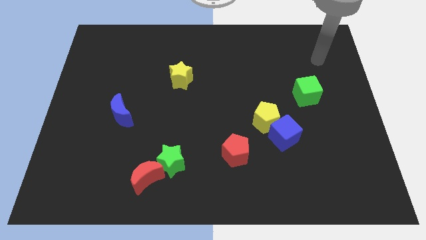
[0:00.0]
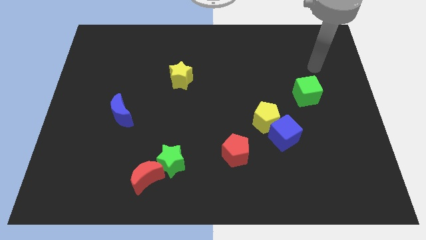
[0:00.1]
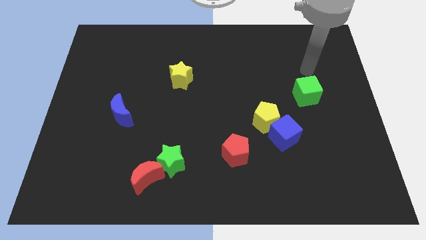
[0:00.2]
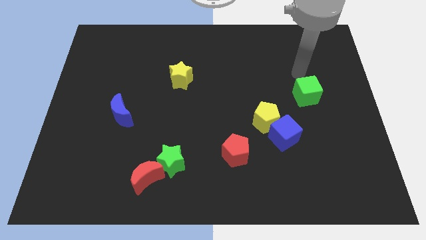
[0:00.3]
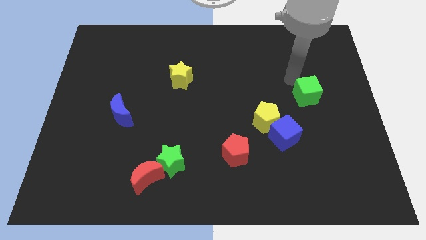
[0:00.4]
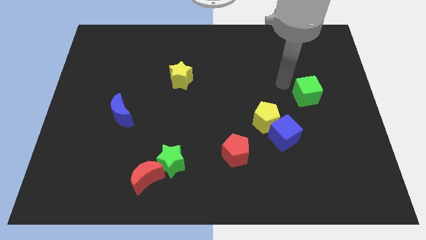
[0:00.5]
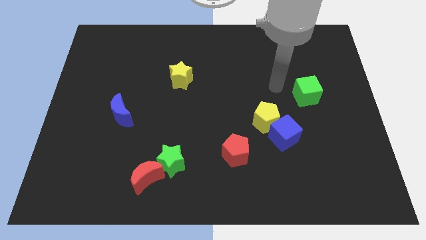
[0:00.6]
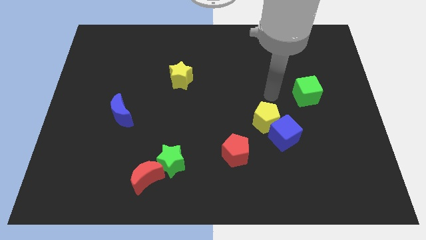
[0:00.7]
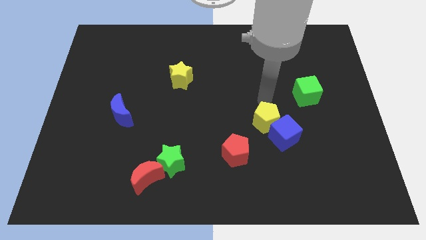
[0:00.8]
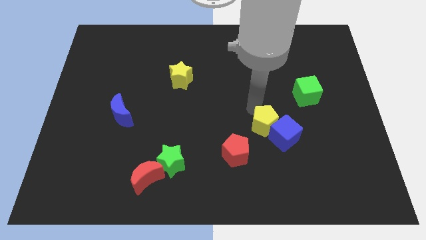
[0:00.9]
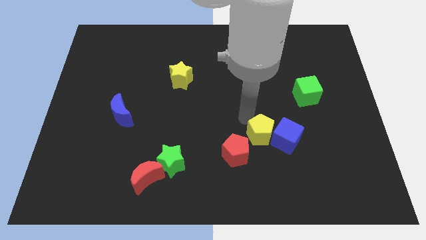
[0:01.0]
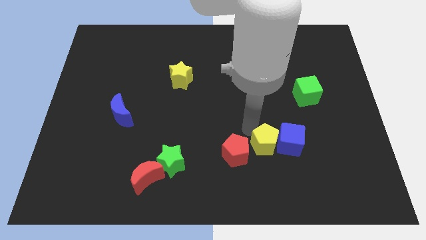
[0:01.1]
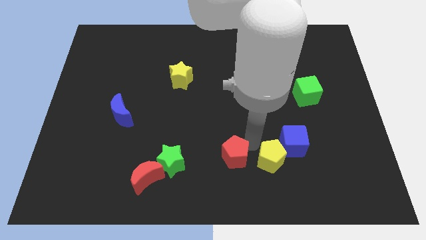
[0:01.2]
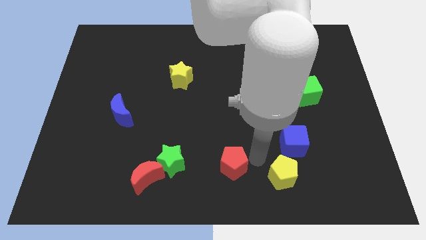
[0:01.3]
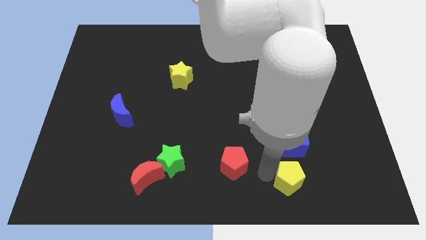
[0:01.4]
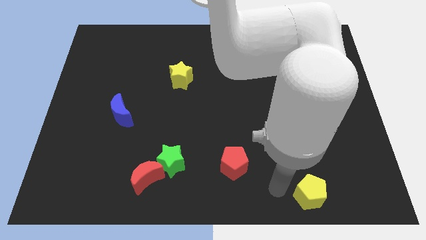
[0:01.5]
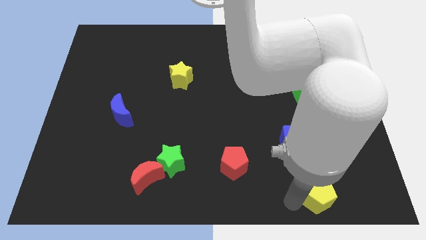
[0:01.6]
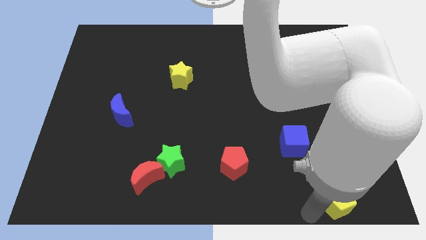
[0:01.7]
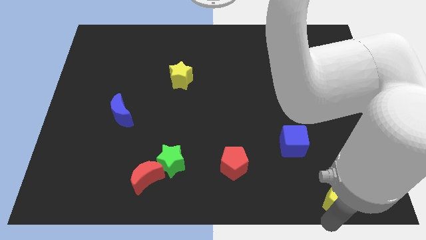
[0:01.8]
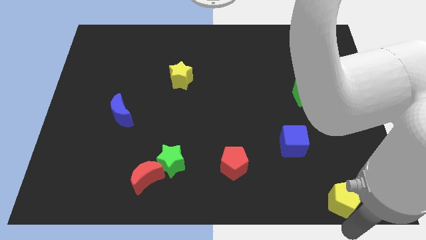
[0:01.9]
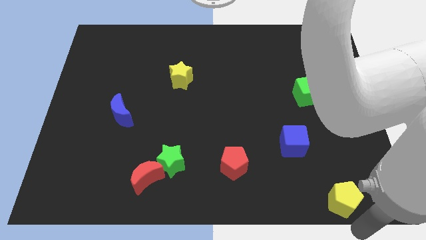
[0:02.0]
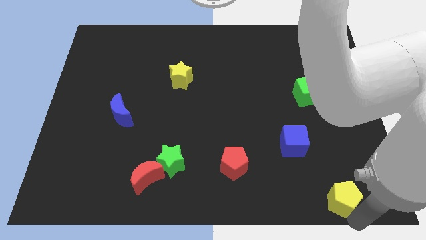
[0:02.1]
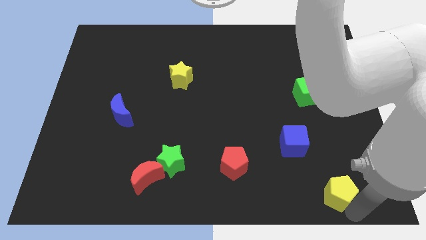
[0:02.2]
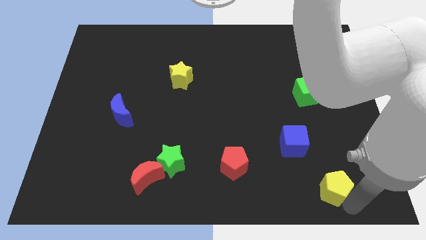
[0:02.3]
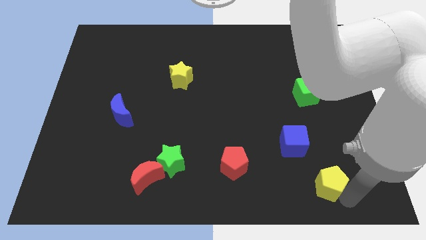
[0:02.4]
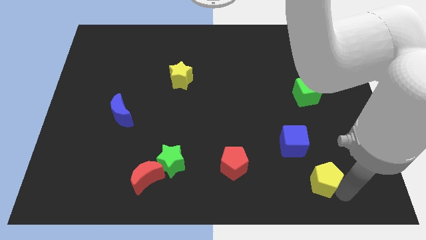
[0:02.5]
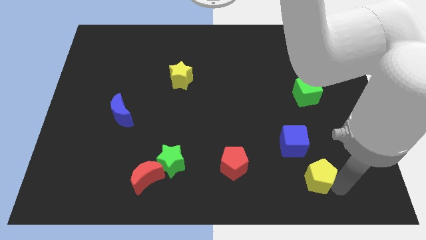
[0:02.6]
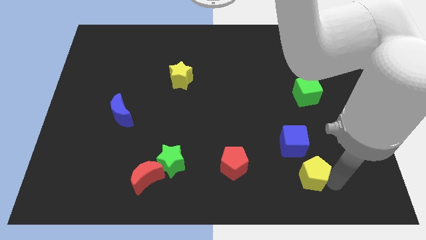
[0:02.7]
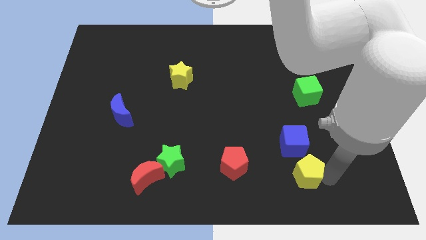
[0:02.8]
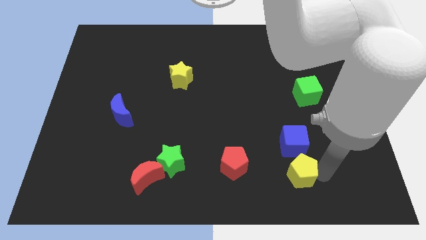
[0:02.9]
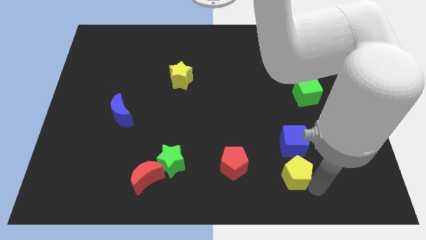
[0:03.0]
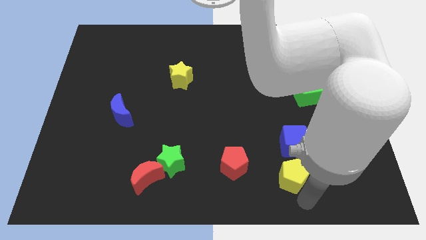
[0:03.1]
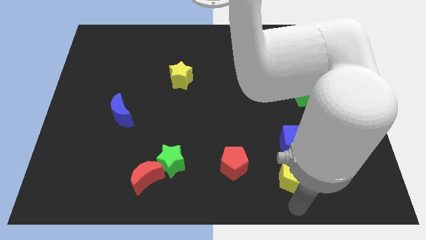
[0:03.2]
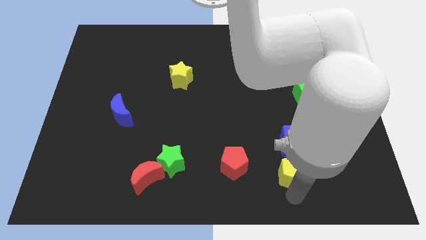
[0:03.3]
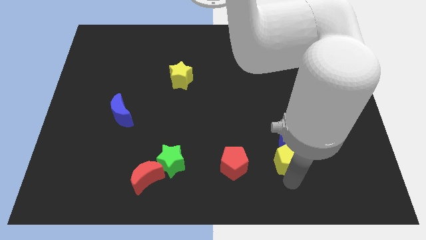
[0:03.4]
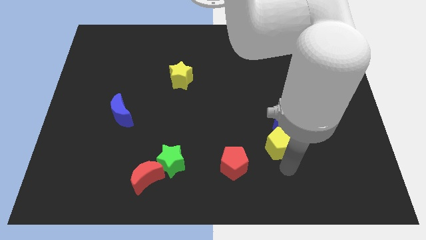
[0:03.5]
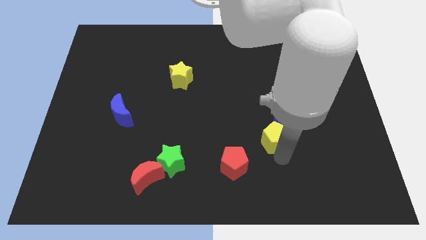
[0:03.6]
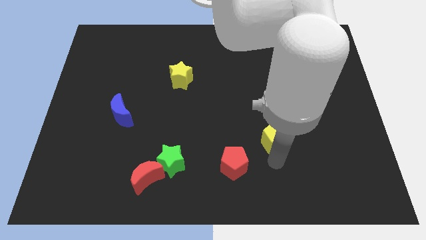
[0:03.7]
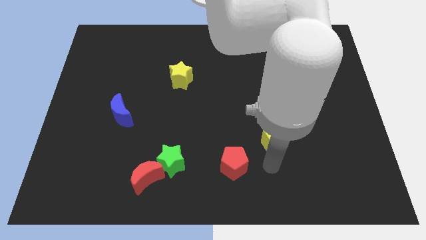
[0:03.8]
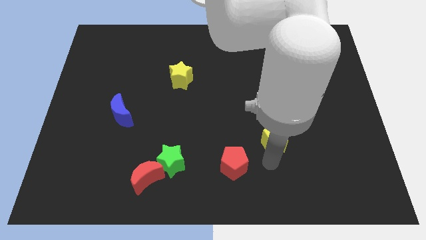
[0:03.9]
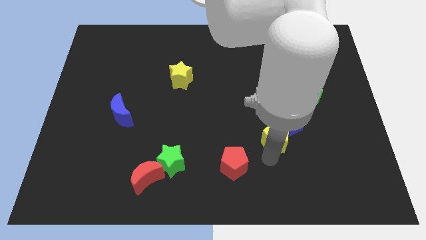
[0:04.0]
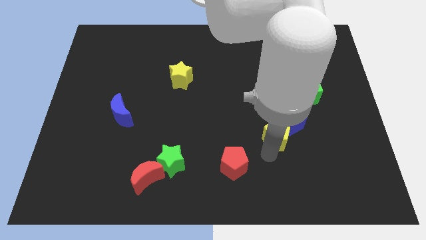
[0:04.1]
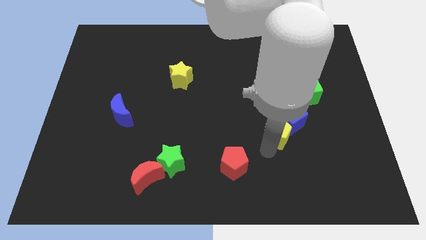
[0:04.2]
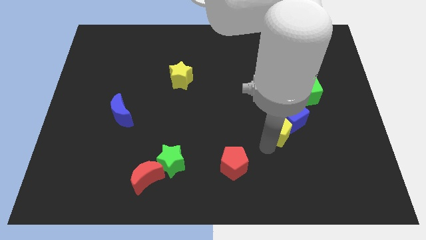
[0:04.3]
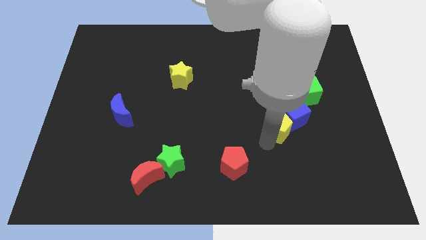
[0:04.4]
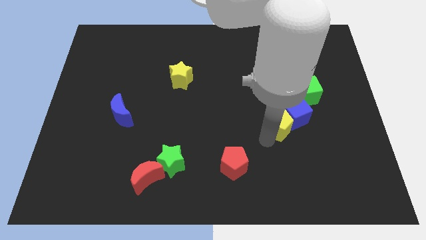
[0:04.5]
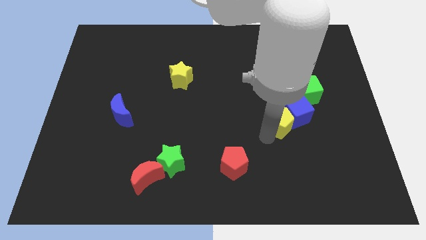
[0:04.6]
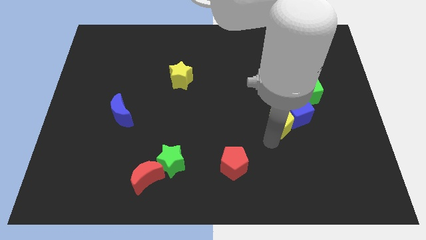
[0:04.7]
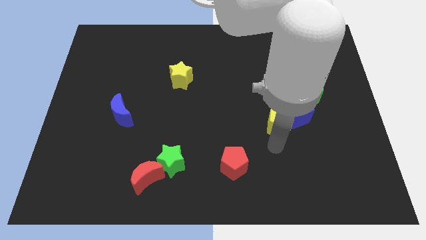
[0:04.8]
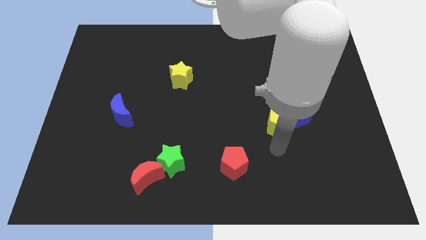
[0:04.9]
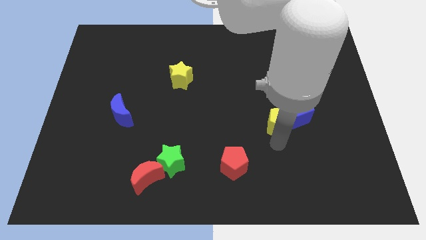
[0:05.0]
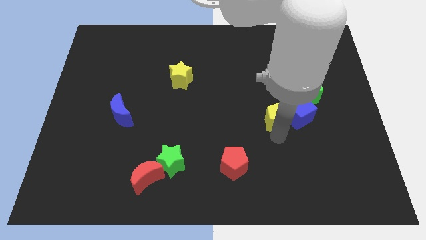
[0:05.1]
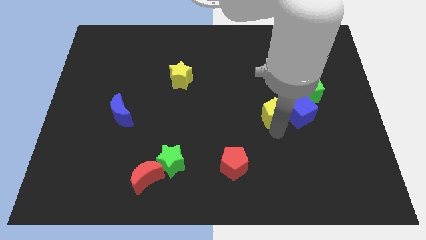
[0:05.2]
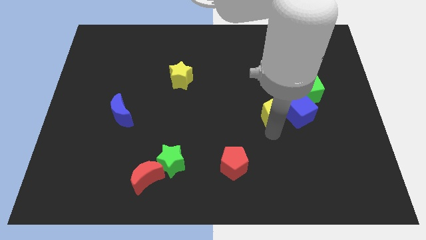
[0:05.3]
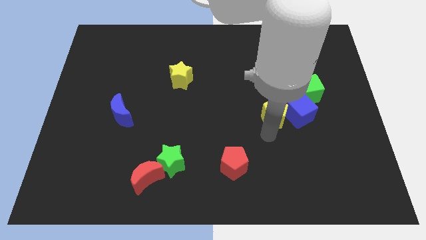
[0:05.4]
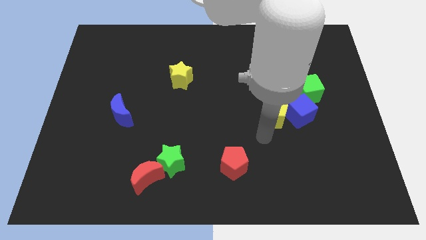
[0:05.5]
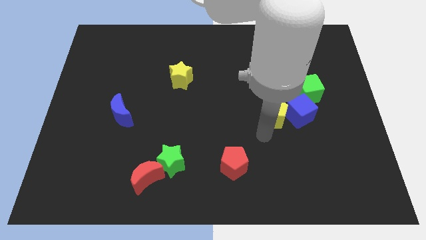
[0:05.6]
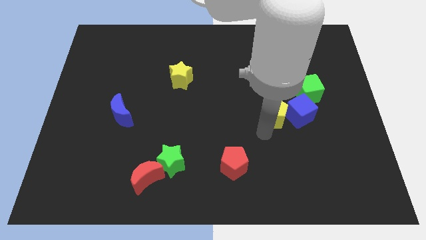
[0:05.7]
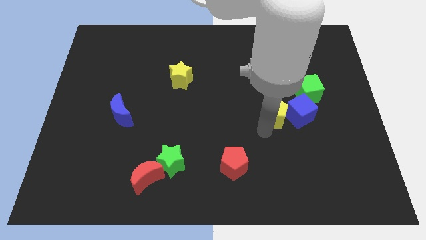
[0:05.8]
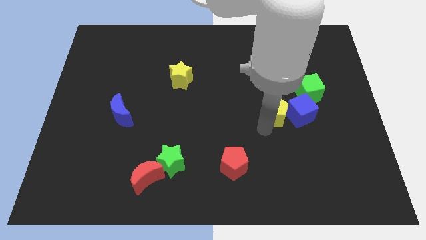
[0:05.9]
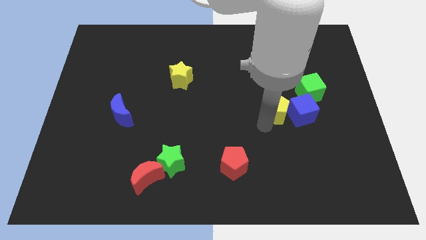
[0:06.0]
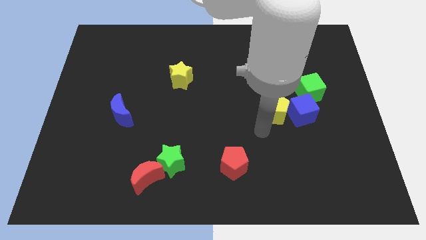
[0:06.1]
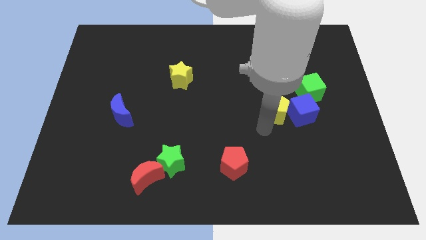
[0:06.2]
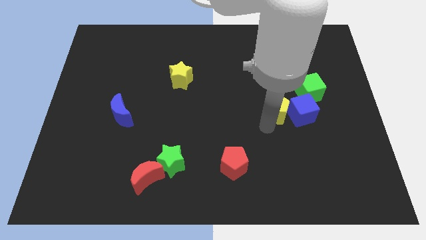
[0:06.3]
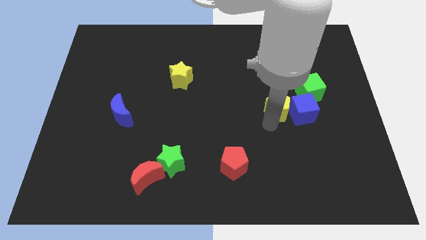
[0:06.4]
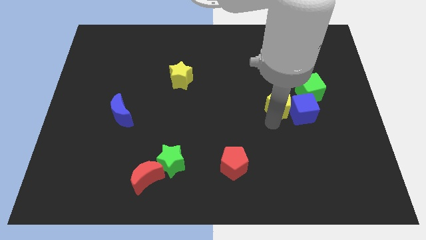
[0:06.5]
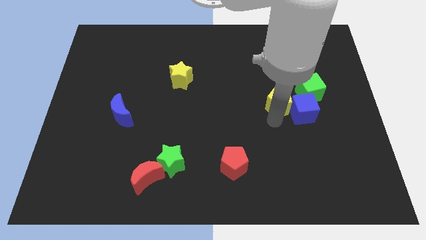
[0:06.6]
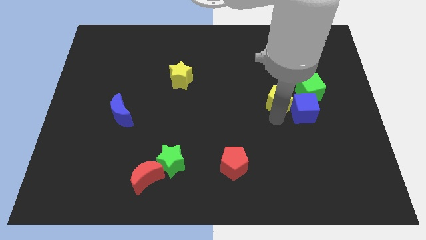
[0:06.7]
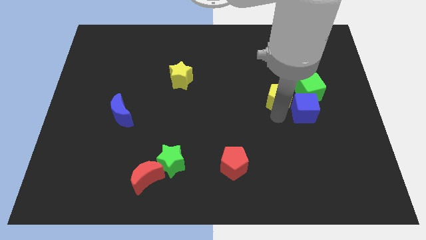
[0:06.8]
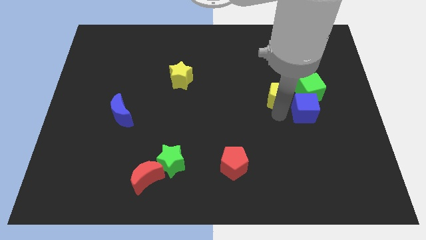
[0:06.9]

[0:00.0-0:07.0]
slide the yellow pentagon diagonally upwards and to the right slightly

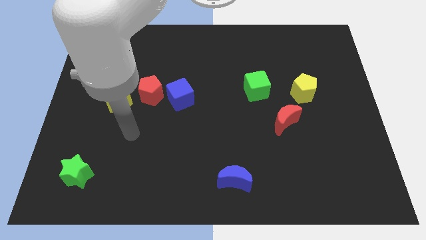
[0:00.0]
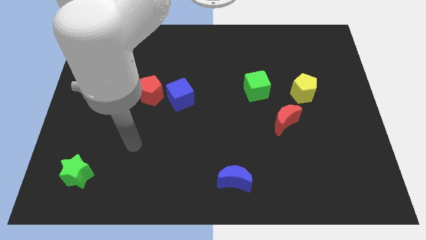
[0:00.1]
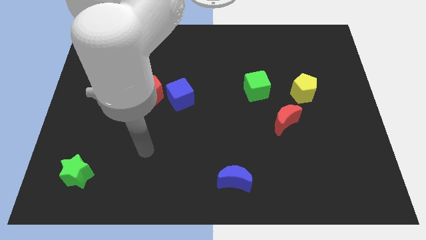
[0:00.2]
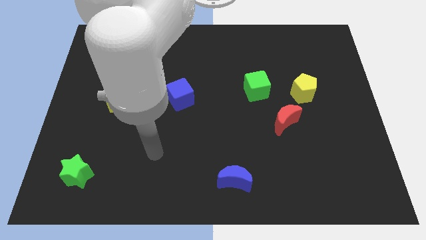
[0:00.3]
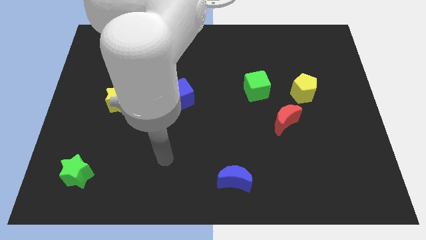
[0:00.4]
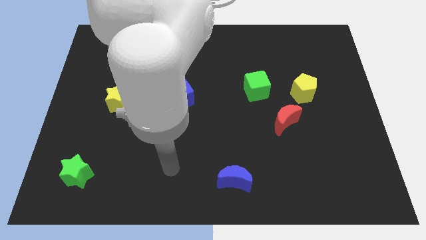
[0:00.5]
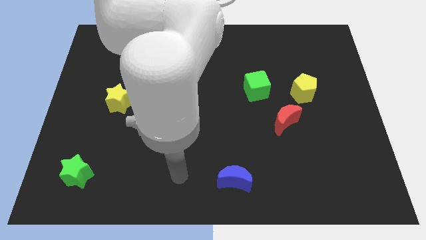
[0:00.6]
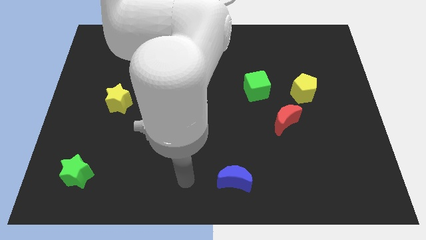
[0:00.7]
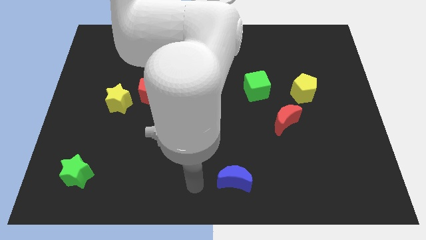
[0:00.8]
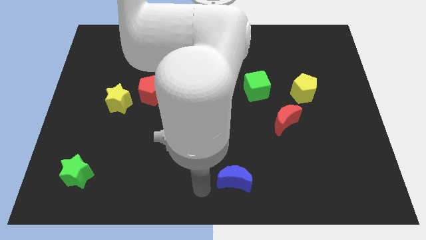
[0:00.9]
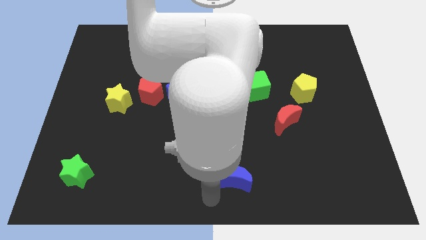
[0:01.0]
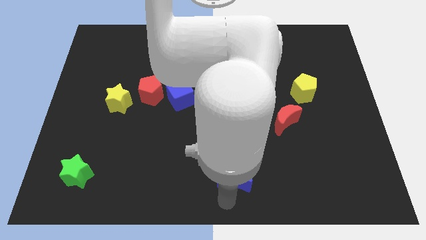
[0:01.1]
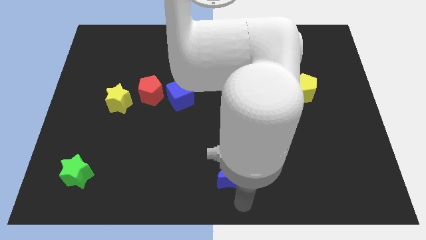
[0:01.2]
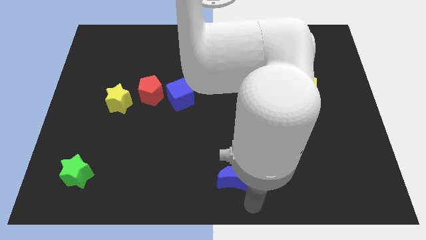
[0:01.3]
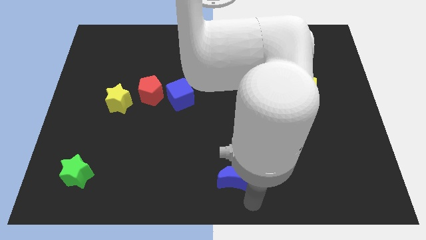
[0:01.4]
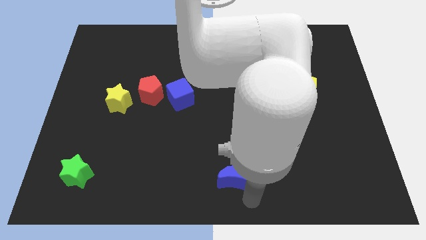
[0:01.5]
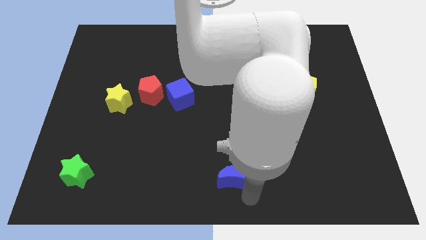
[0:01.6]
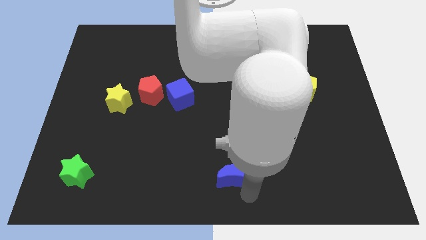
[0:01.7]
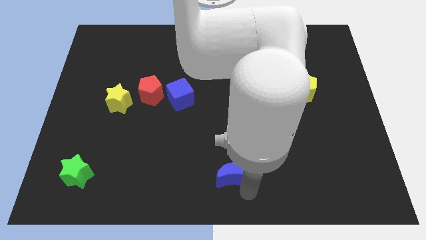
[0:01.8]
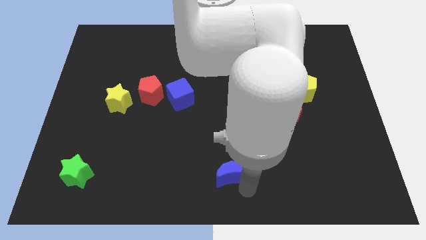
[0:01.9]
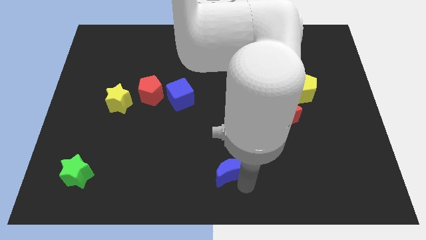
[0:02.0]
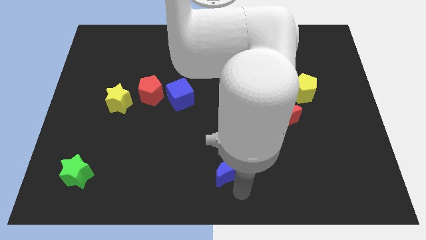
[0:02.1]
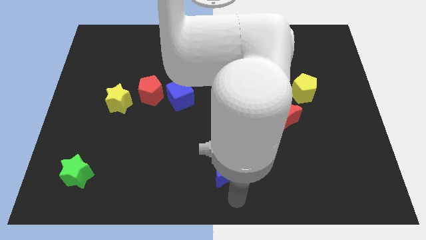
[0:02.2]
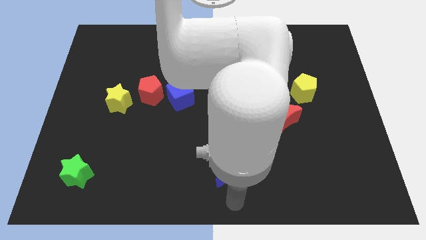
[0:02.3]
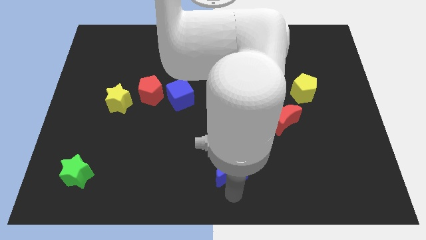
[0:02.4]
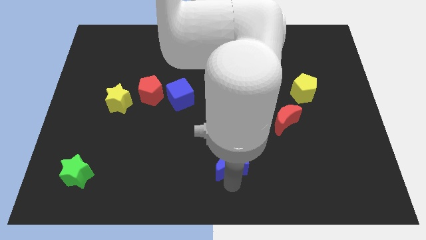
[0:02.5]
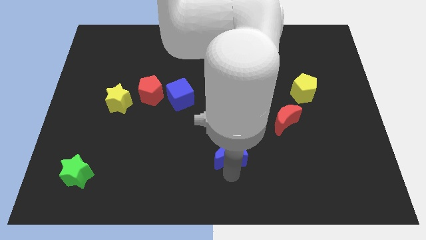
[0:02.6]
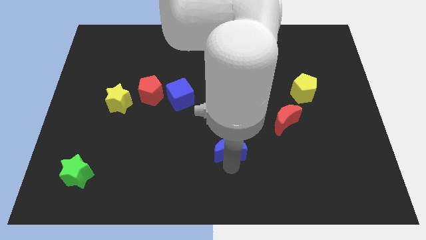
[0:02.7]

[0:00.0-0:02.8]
push the blue moon upwards a little bit
